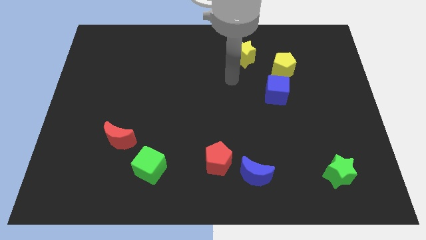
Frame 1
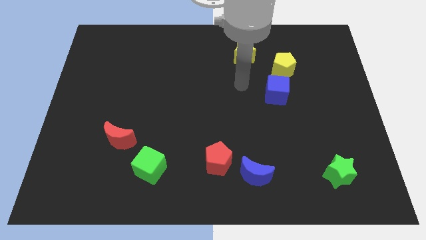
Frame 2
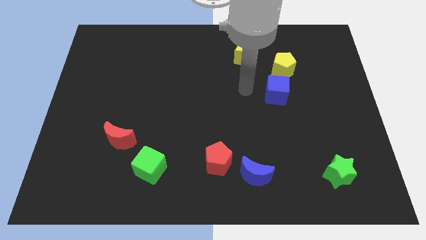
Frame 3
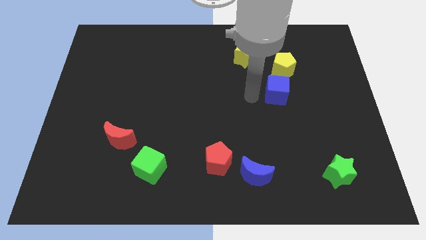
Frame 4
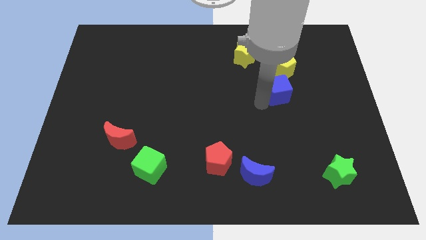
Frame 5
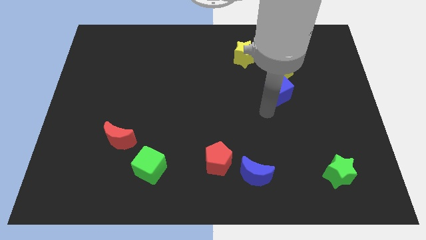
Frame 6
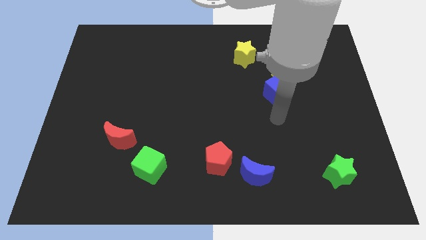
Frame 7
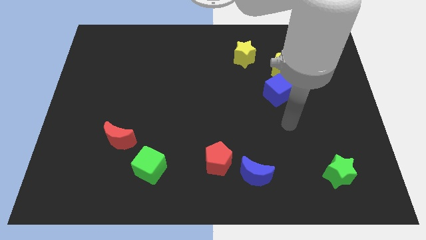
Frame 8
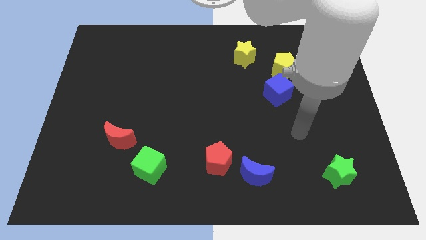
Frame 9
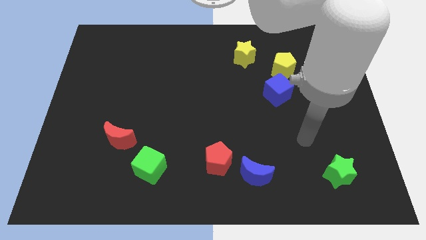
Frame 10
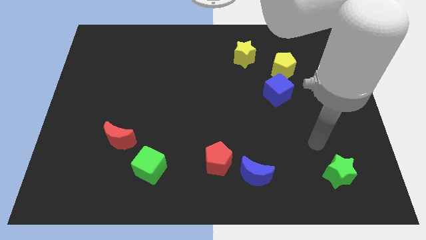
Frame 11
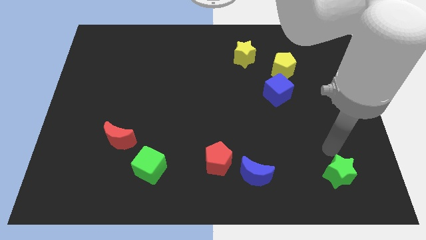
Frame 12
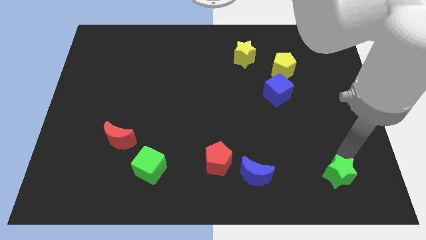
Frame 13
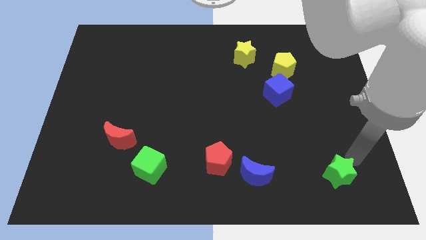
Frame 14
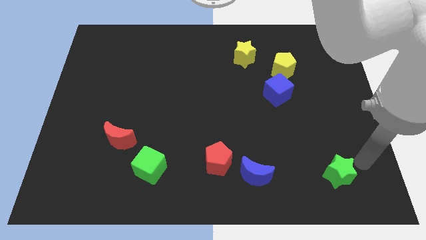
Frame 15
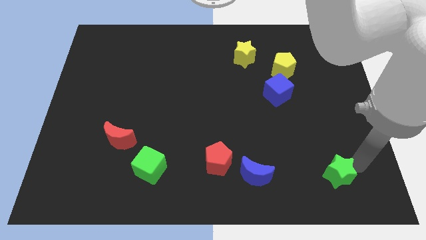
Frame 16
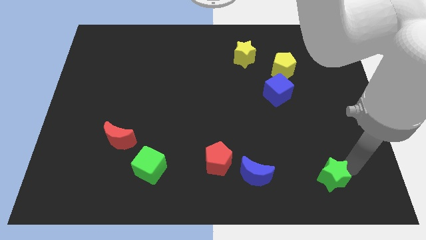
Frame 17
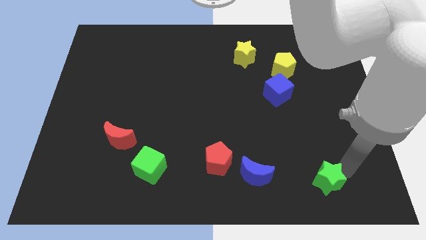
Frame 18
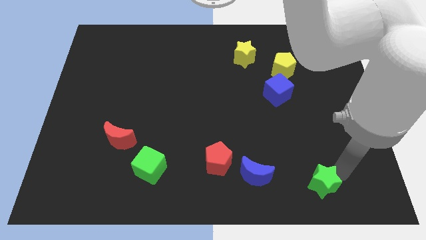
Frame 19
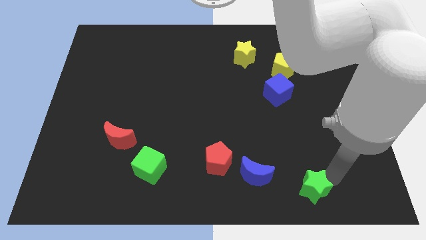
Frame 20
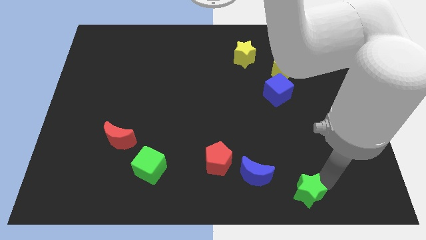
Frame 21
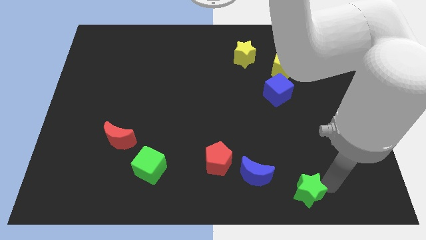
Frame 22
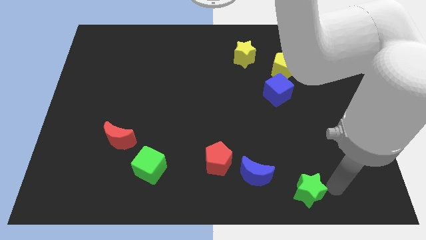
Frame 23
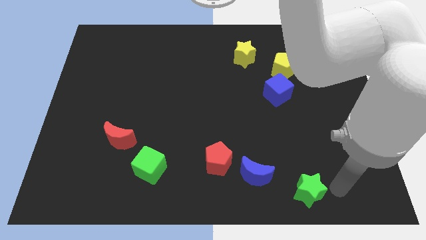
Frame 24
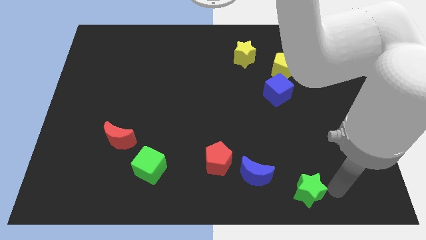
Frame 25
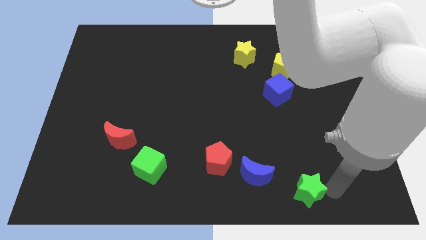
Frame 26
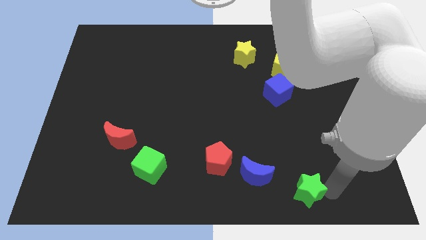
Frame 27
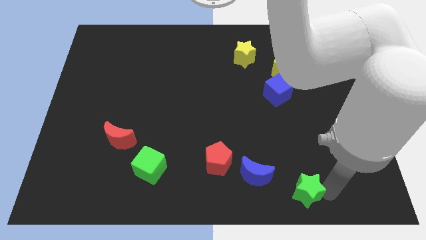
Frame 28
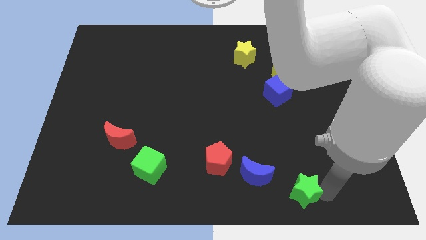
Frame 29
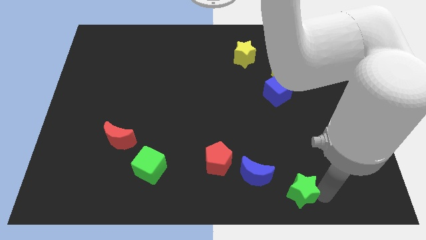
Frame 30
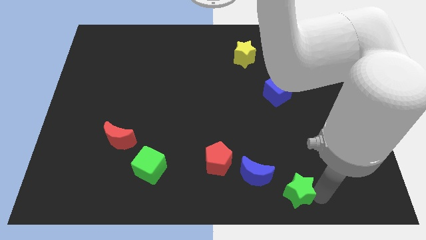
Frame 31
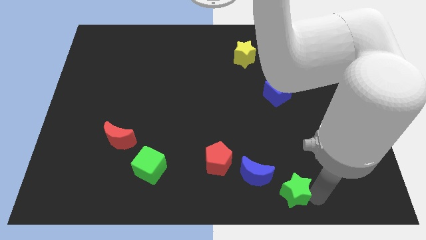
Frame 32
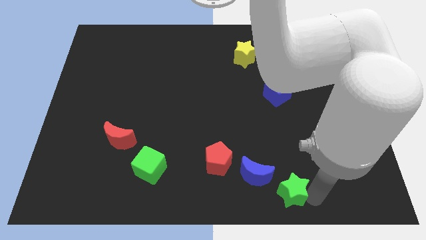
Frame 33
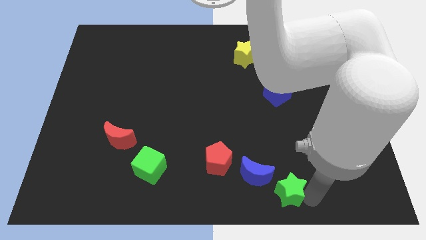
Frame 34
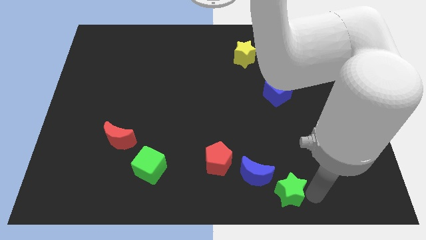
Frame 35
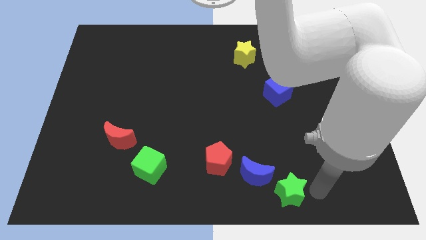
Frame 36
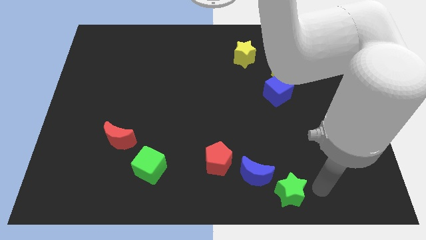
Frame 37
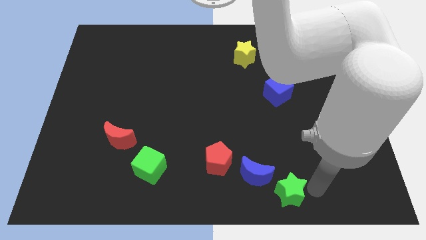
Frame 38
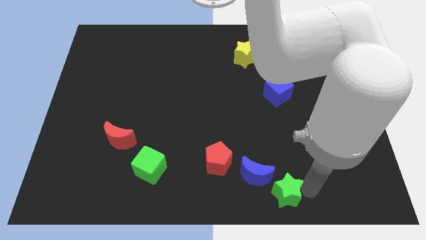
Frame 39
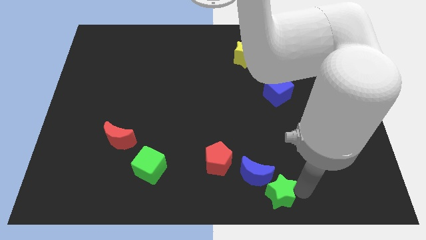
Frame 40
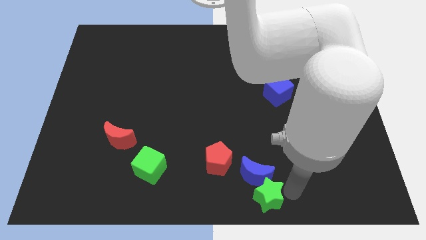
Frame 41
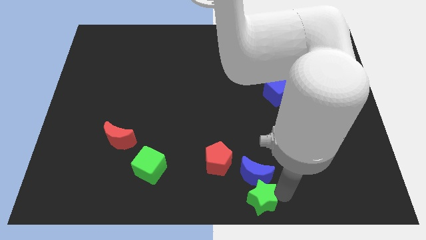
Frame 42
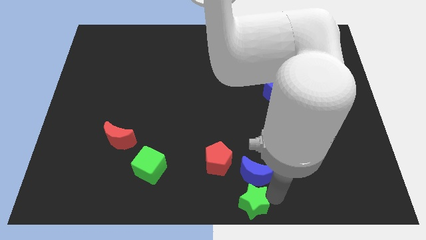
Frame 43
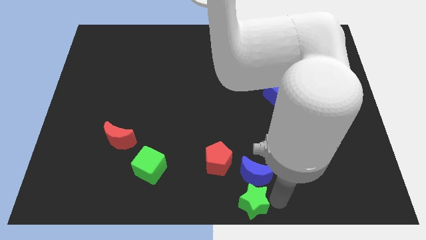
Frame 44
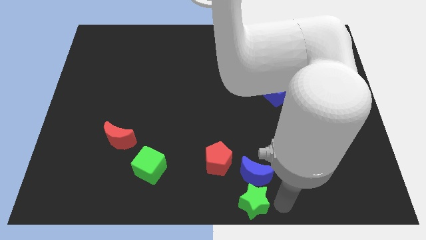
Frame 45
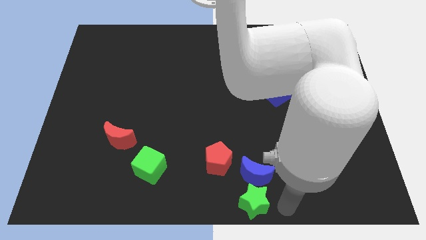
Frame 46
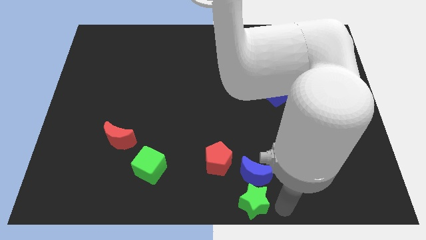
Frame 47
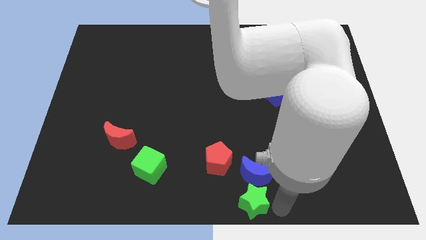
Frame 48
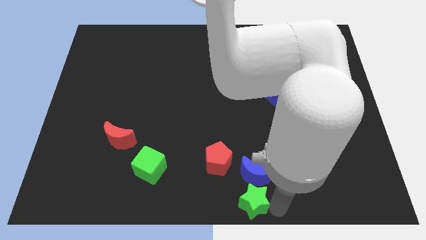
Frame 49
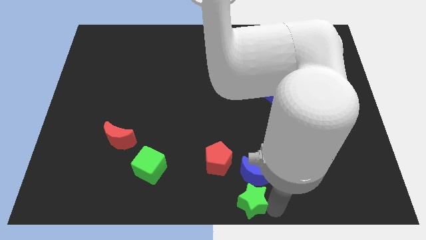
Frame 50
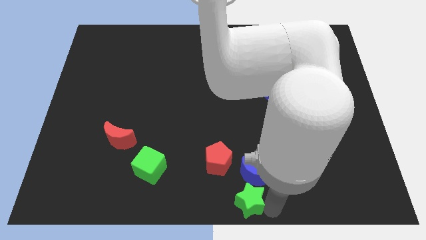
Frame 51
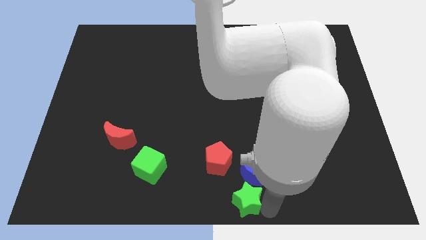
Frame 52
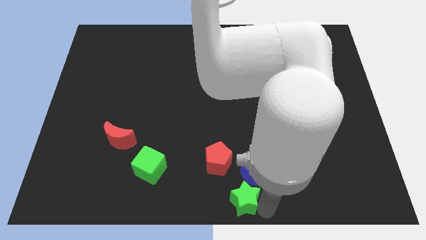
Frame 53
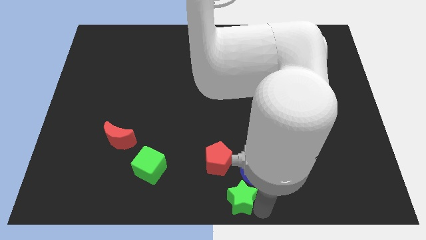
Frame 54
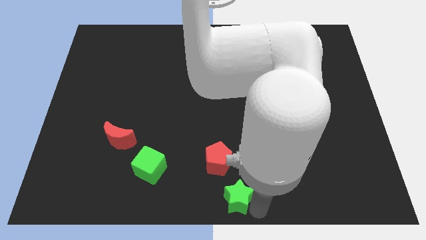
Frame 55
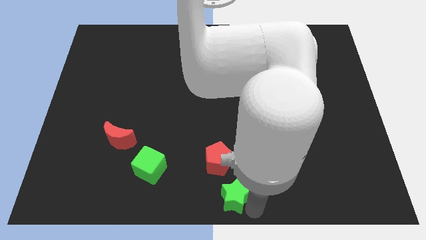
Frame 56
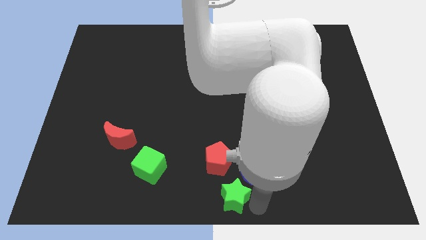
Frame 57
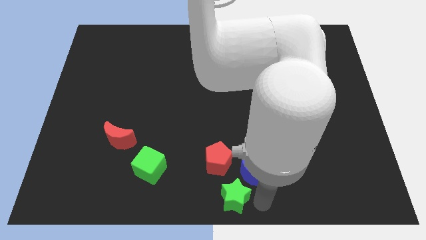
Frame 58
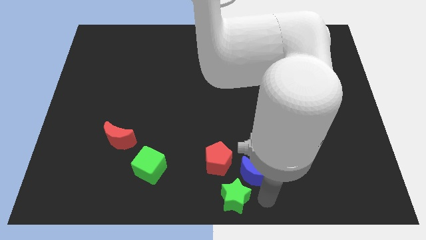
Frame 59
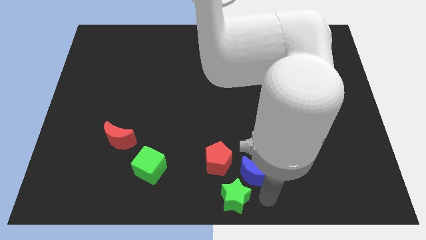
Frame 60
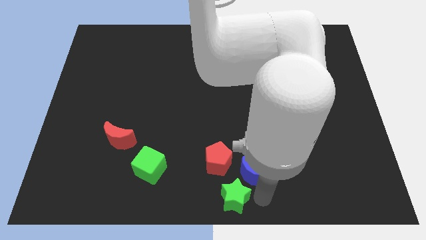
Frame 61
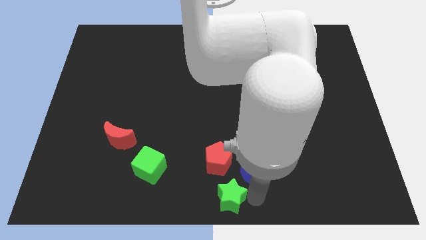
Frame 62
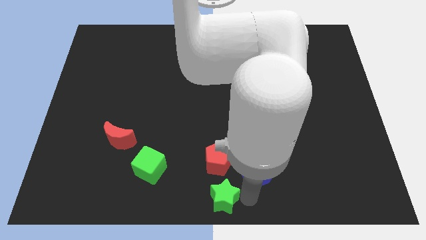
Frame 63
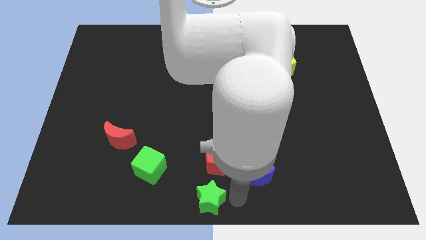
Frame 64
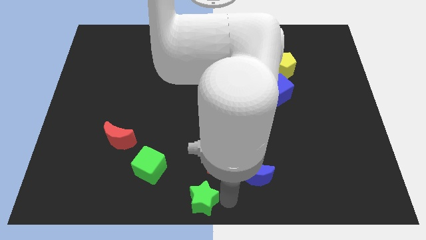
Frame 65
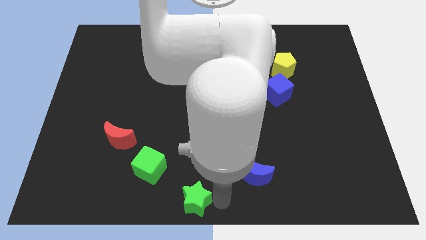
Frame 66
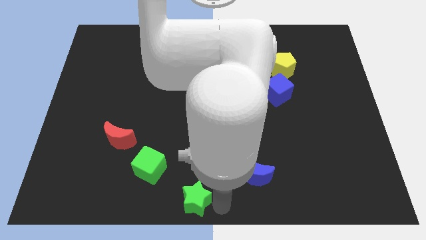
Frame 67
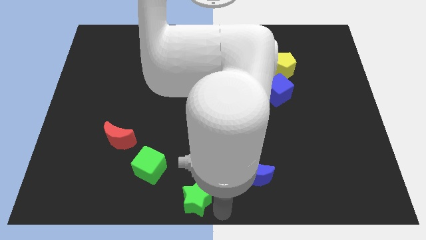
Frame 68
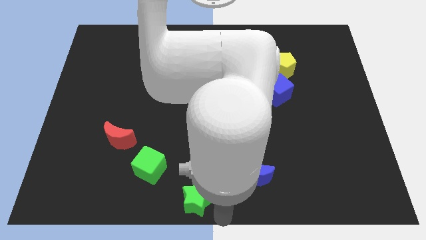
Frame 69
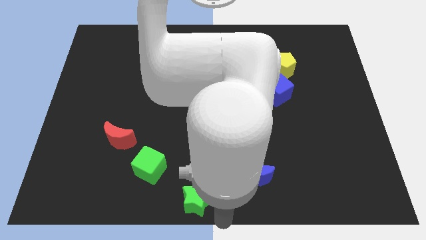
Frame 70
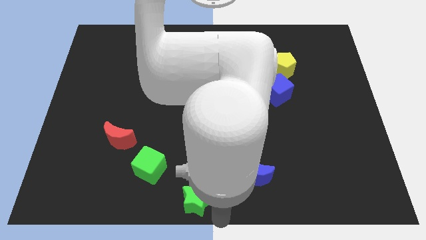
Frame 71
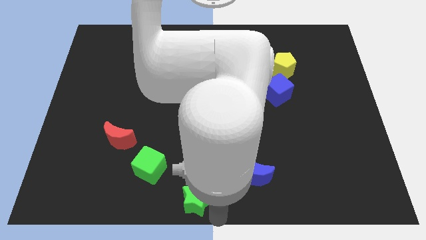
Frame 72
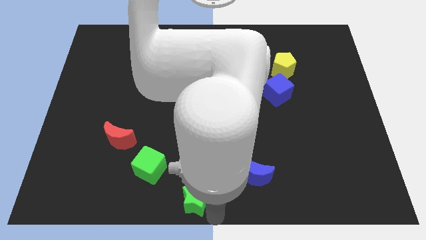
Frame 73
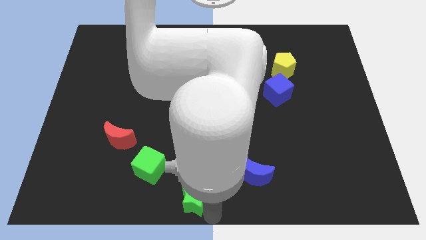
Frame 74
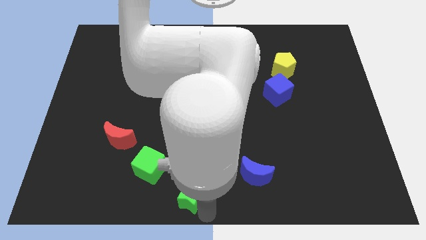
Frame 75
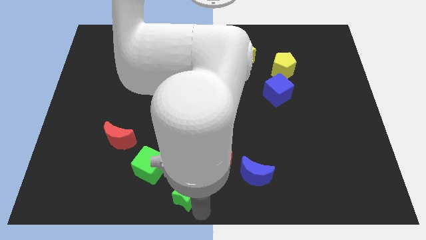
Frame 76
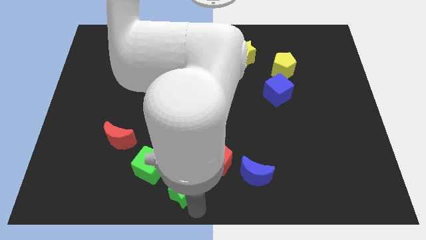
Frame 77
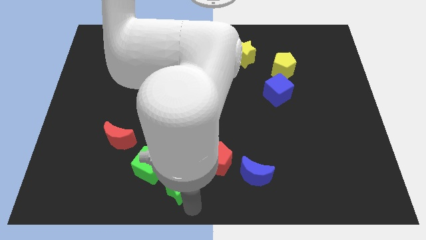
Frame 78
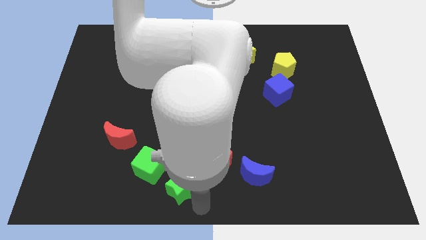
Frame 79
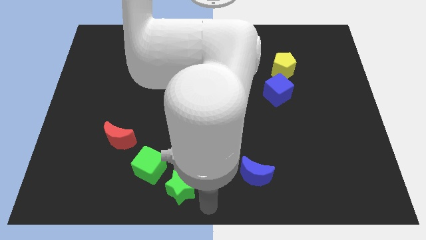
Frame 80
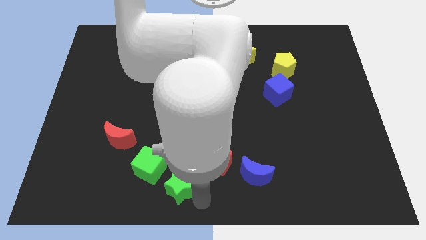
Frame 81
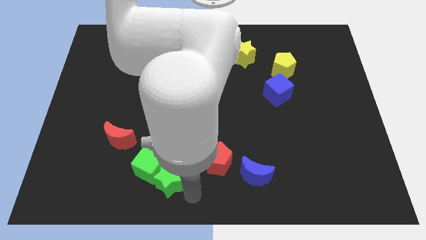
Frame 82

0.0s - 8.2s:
put the green star close to the green cube
